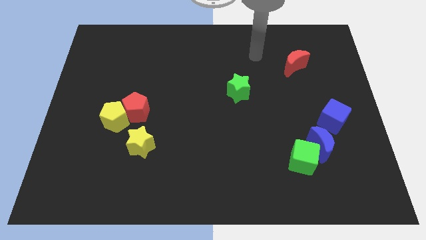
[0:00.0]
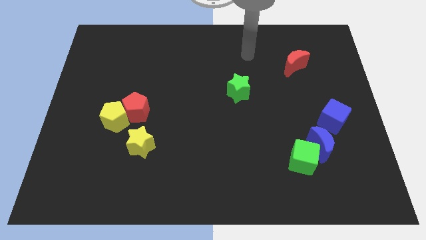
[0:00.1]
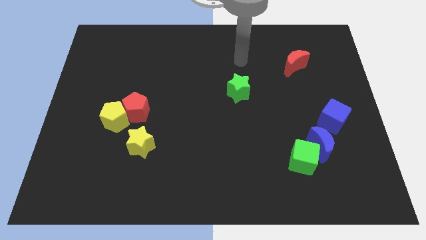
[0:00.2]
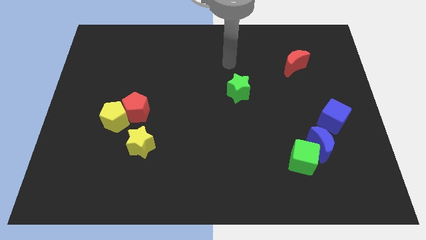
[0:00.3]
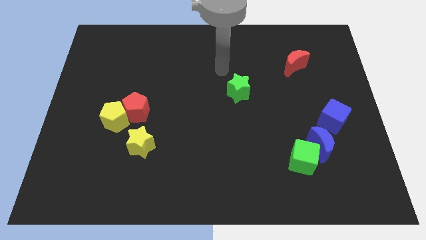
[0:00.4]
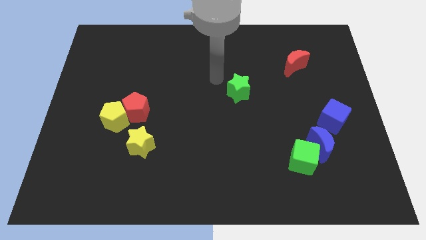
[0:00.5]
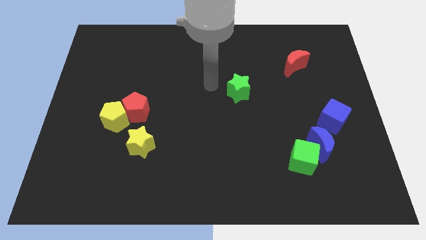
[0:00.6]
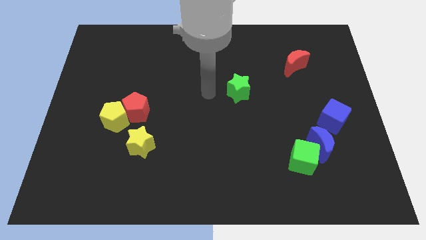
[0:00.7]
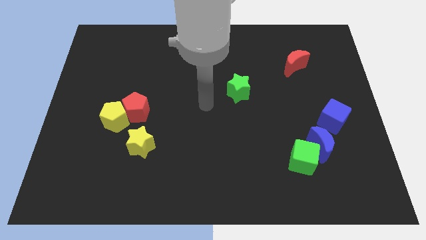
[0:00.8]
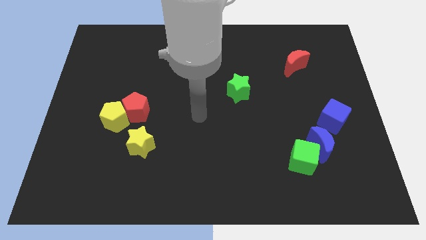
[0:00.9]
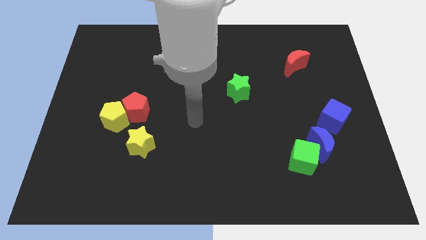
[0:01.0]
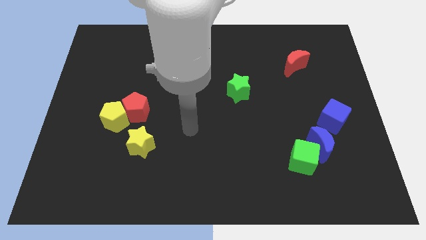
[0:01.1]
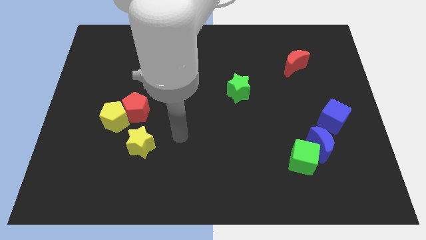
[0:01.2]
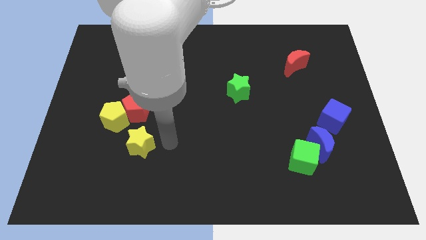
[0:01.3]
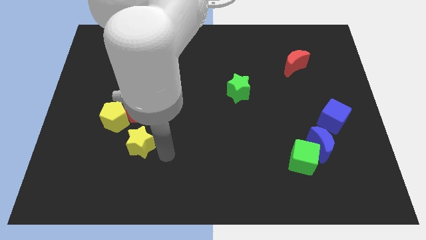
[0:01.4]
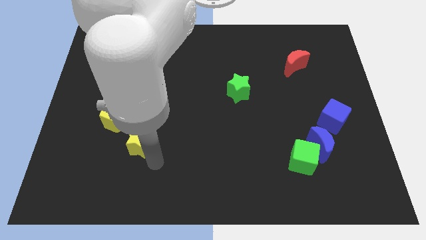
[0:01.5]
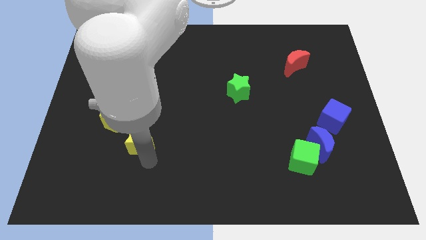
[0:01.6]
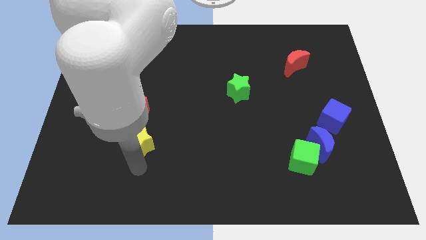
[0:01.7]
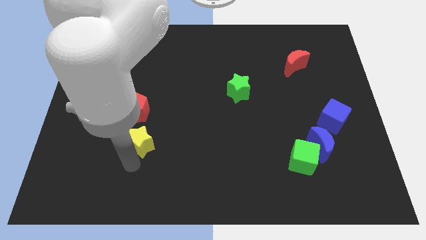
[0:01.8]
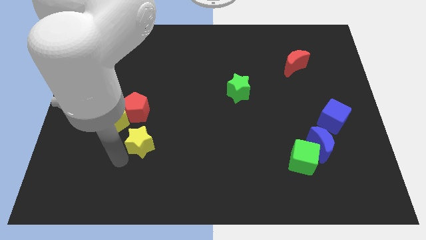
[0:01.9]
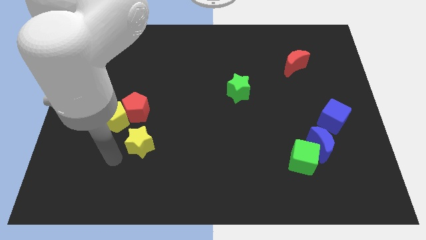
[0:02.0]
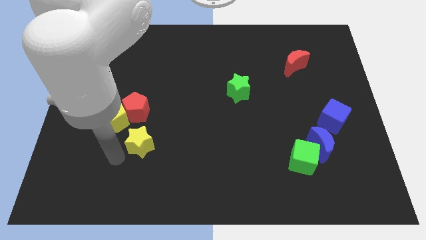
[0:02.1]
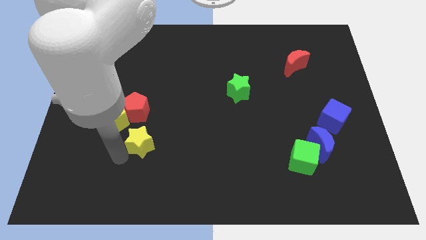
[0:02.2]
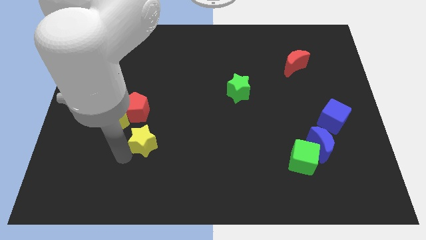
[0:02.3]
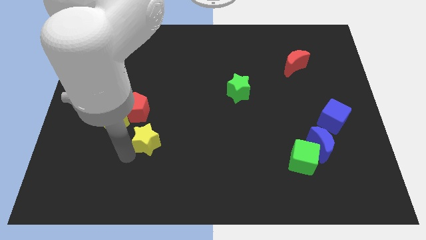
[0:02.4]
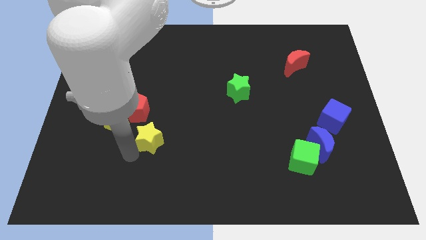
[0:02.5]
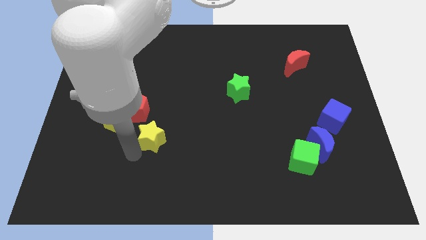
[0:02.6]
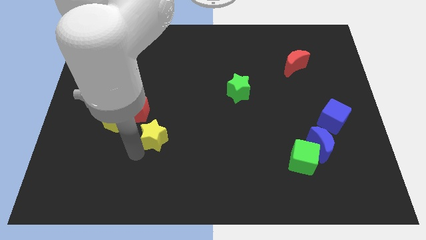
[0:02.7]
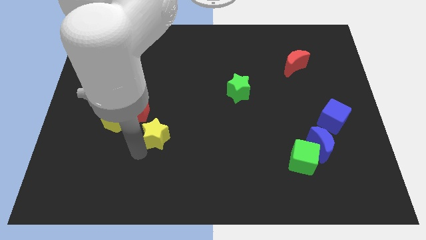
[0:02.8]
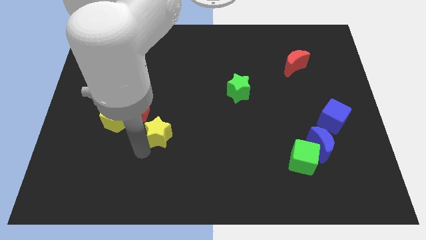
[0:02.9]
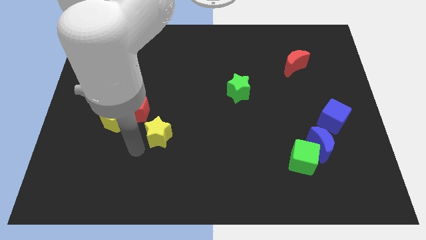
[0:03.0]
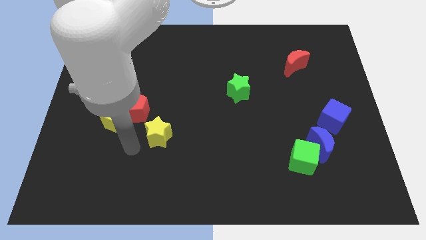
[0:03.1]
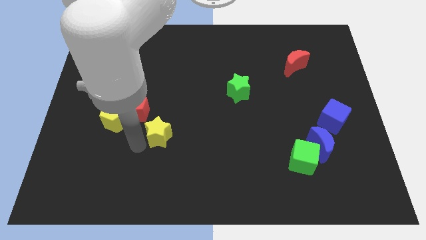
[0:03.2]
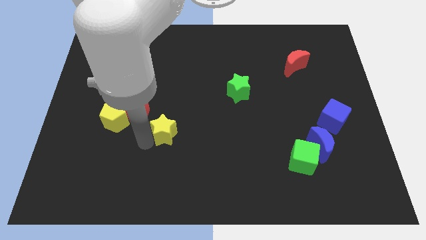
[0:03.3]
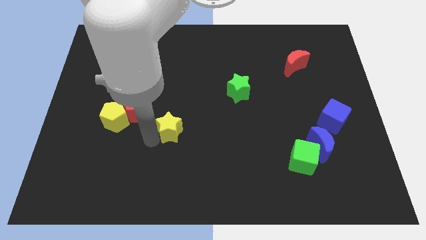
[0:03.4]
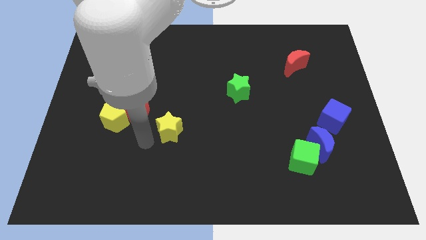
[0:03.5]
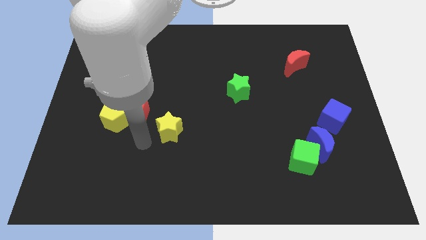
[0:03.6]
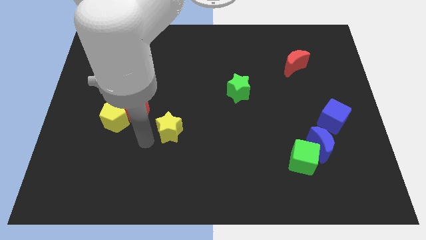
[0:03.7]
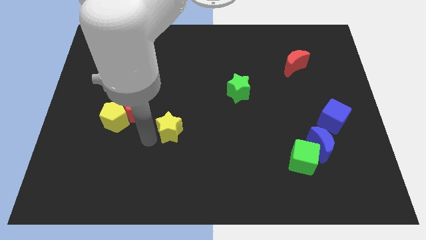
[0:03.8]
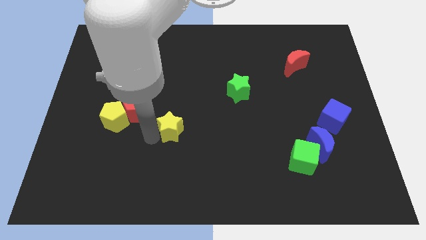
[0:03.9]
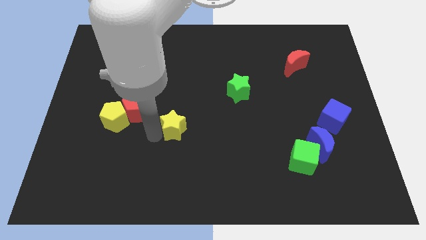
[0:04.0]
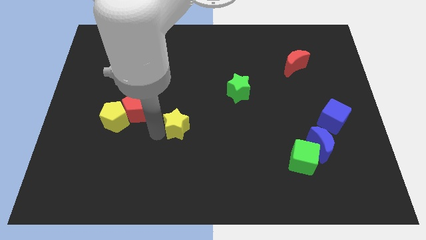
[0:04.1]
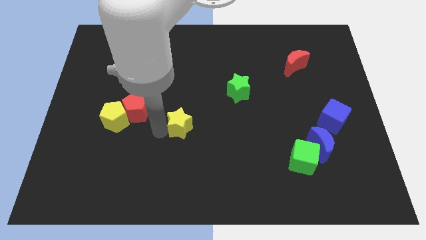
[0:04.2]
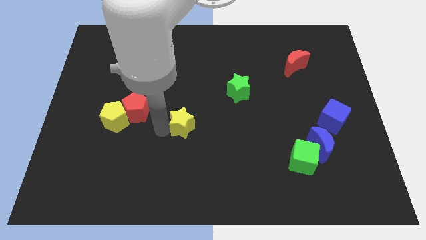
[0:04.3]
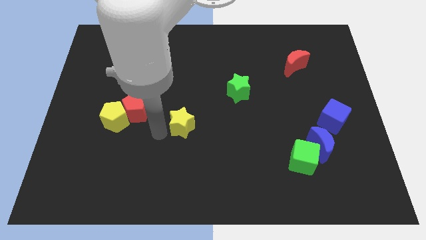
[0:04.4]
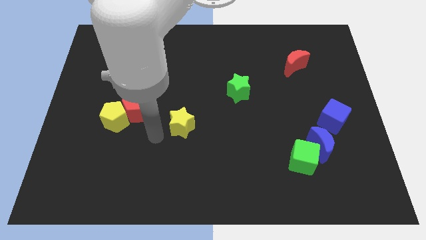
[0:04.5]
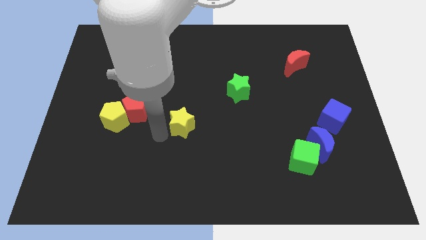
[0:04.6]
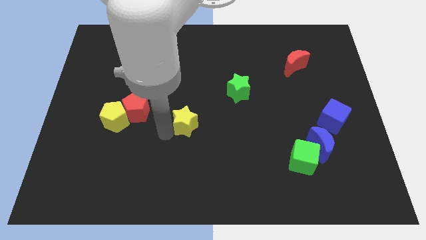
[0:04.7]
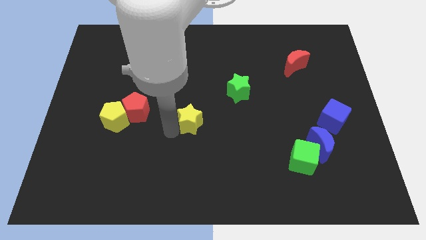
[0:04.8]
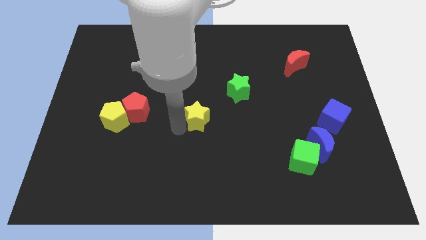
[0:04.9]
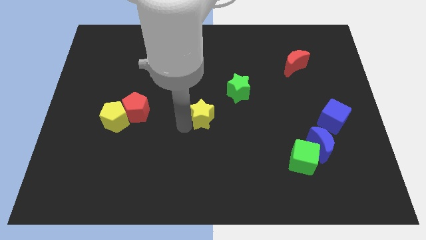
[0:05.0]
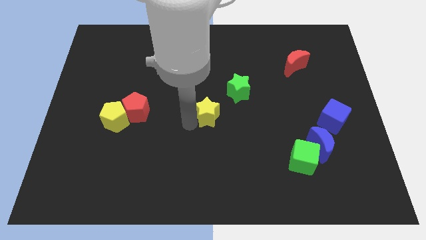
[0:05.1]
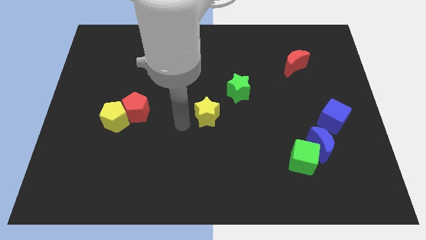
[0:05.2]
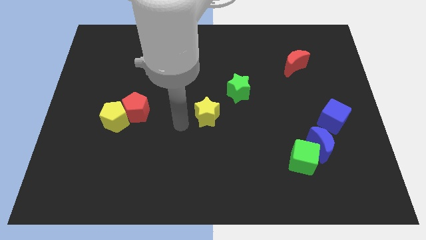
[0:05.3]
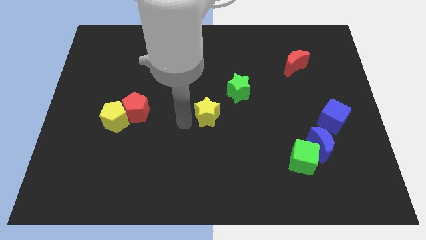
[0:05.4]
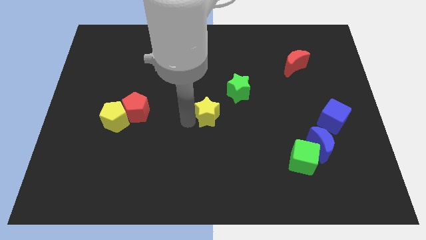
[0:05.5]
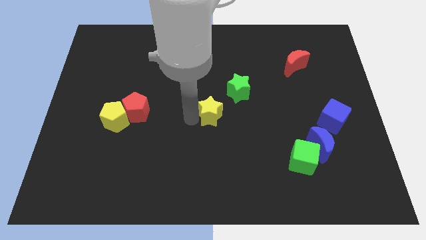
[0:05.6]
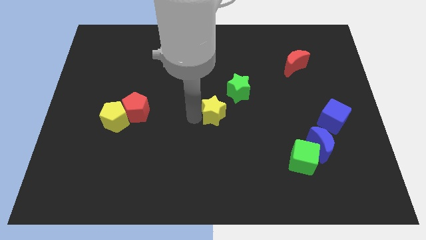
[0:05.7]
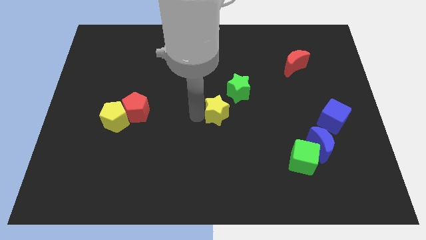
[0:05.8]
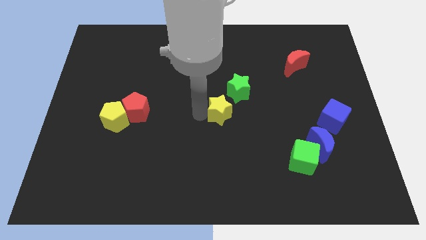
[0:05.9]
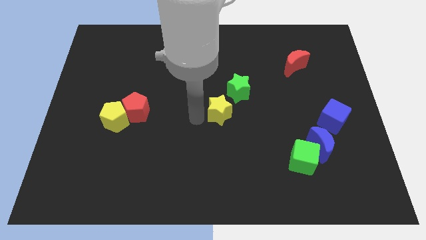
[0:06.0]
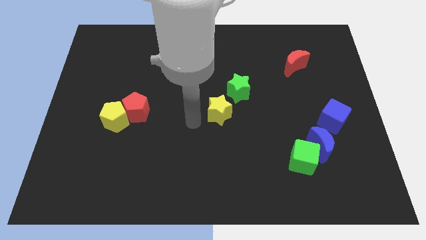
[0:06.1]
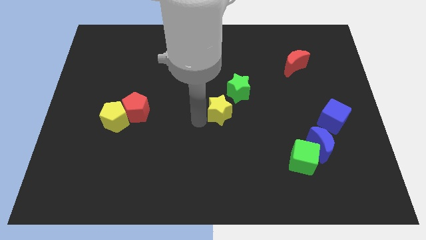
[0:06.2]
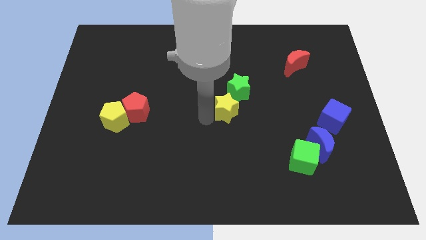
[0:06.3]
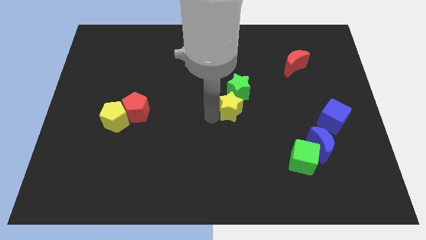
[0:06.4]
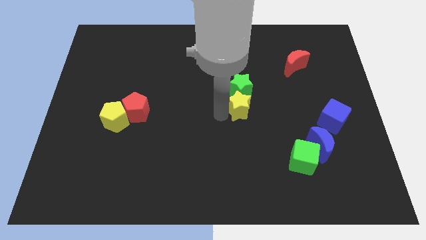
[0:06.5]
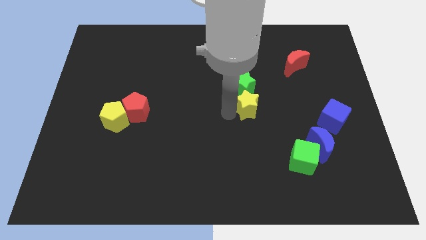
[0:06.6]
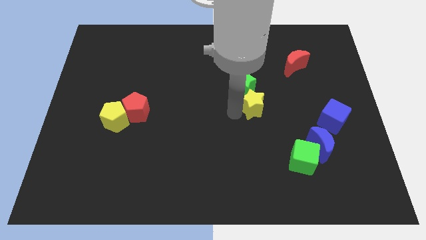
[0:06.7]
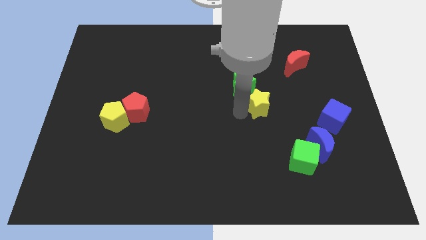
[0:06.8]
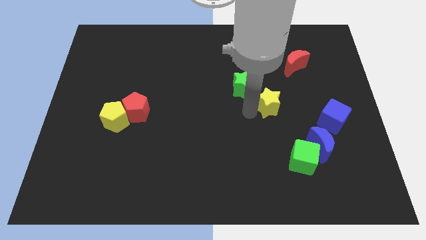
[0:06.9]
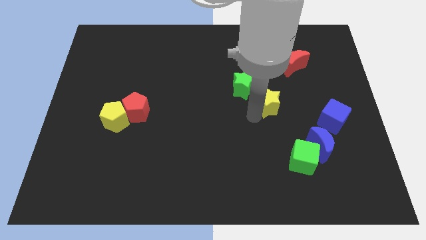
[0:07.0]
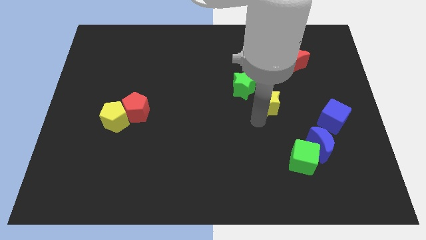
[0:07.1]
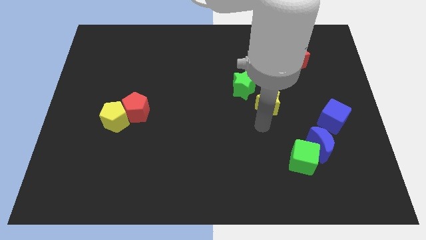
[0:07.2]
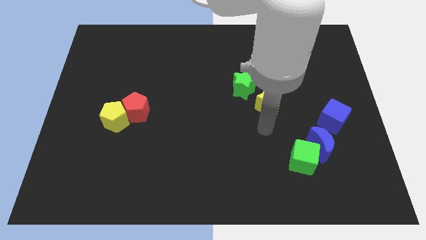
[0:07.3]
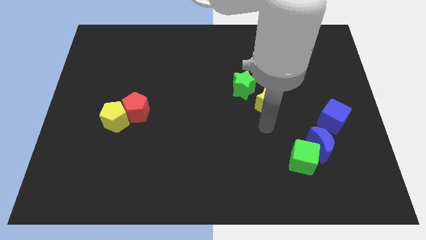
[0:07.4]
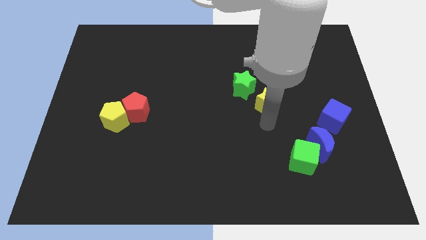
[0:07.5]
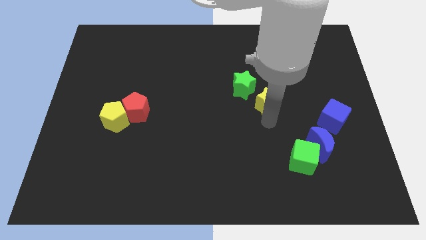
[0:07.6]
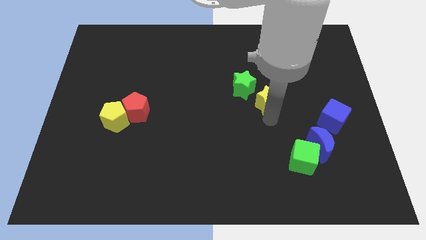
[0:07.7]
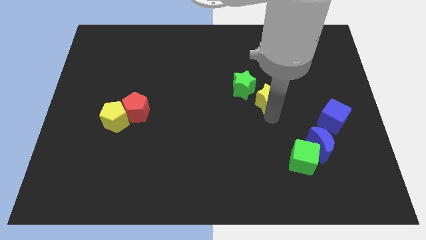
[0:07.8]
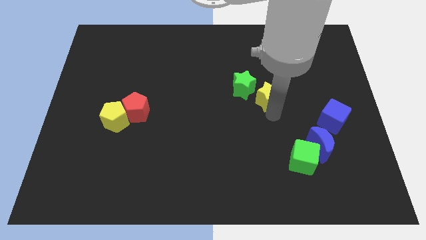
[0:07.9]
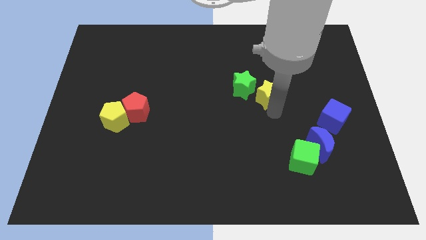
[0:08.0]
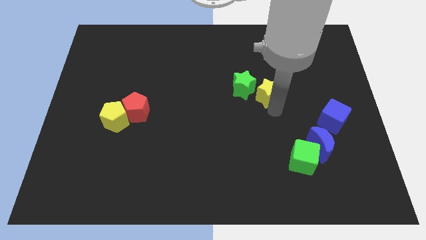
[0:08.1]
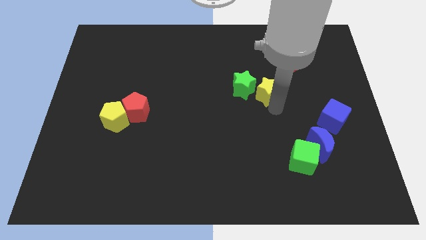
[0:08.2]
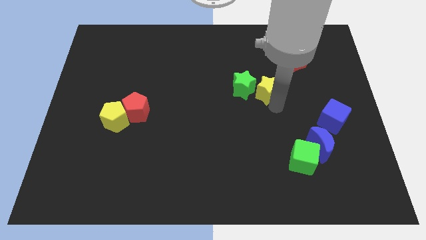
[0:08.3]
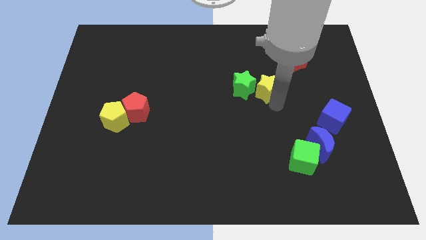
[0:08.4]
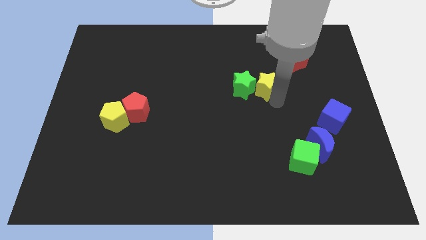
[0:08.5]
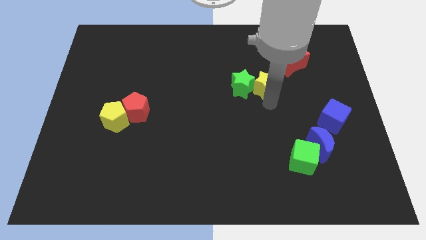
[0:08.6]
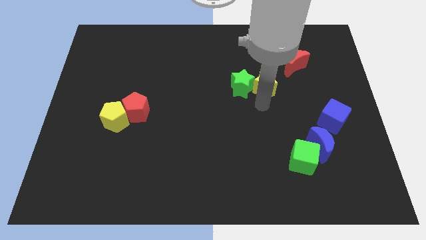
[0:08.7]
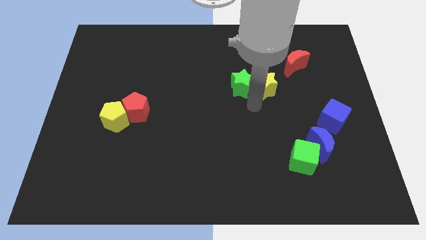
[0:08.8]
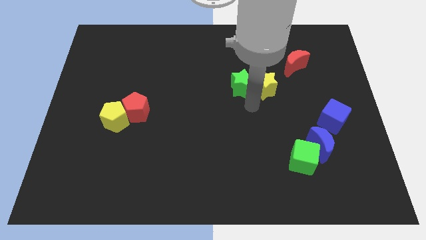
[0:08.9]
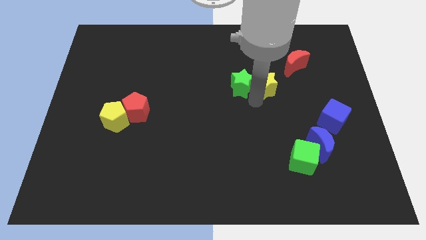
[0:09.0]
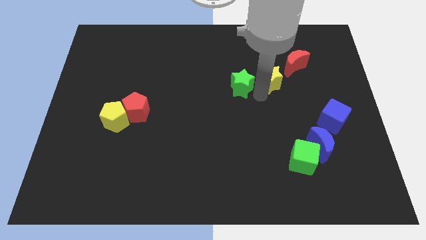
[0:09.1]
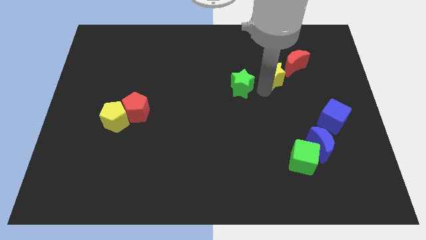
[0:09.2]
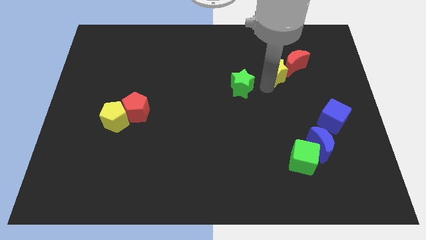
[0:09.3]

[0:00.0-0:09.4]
move the yellow star close to the red moon
